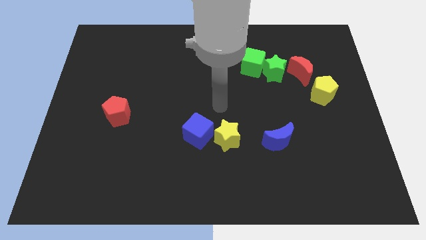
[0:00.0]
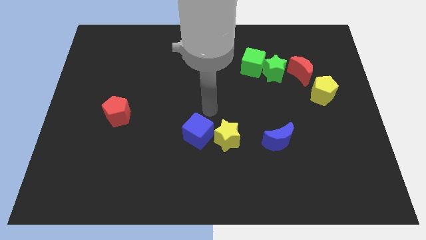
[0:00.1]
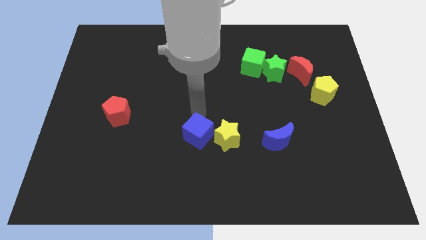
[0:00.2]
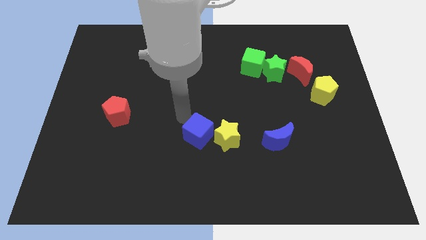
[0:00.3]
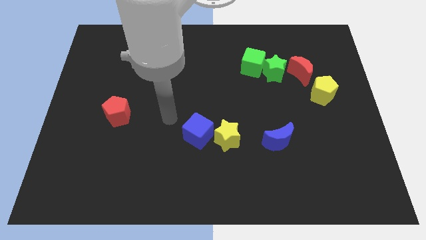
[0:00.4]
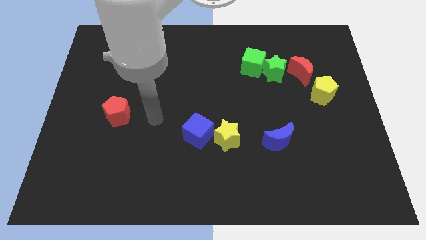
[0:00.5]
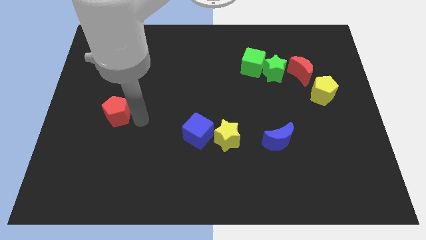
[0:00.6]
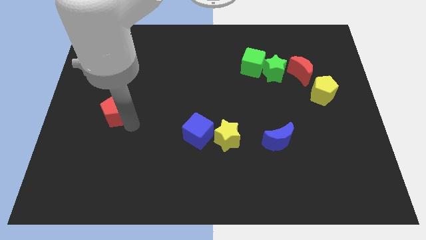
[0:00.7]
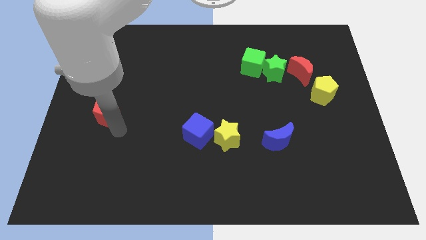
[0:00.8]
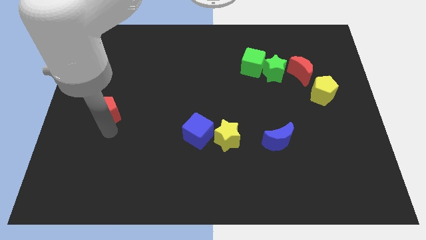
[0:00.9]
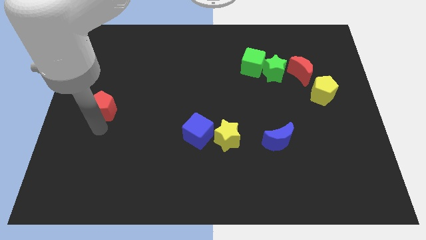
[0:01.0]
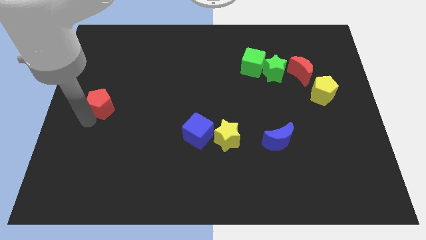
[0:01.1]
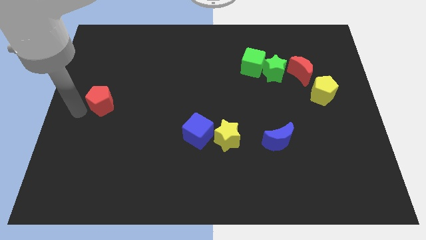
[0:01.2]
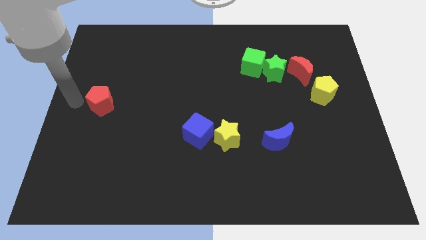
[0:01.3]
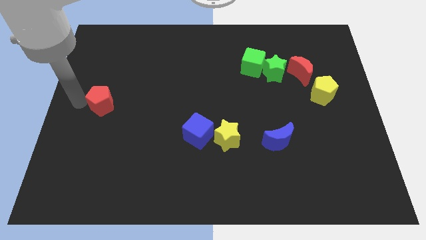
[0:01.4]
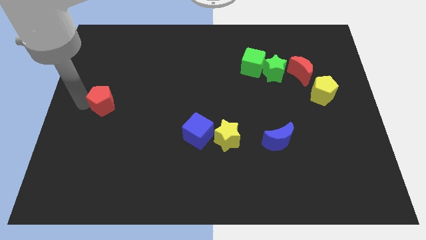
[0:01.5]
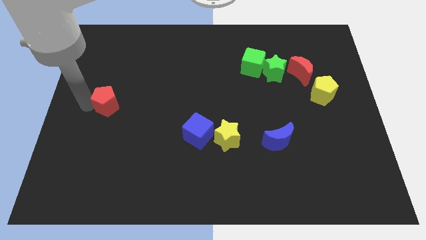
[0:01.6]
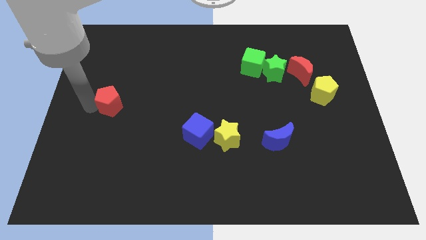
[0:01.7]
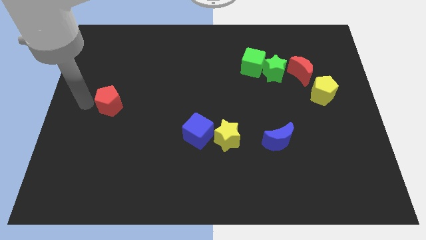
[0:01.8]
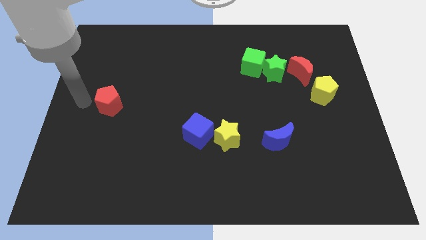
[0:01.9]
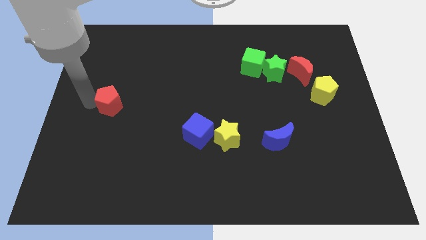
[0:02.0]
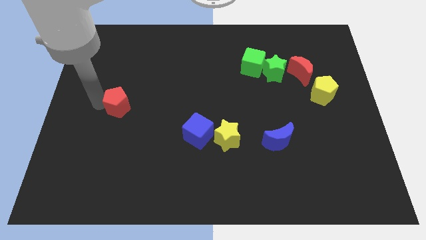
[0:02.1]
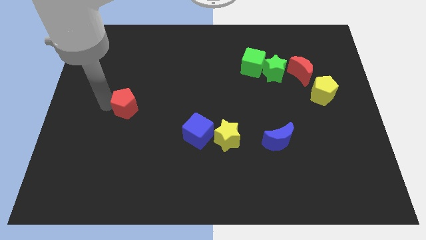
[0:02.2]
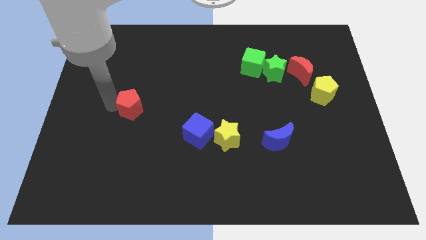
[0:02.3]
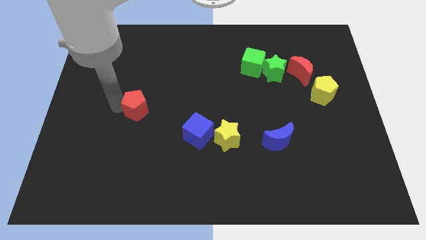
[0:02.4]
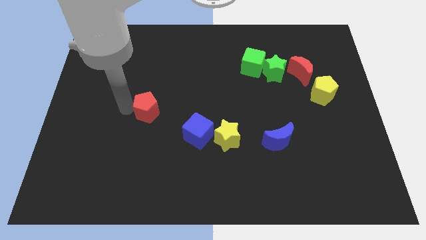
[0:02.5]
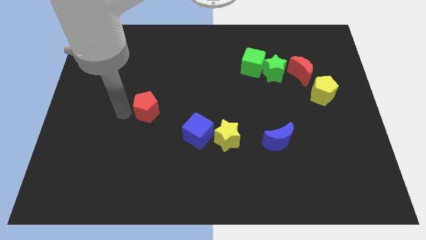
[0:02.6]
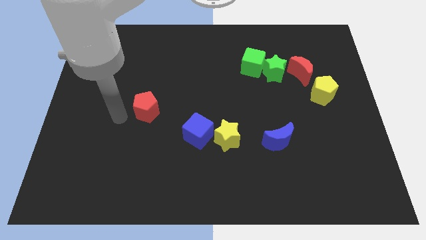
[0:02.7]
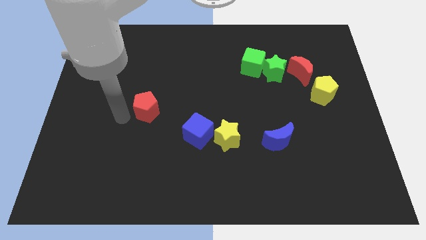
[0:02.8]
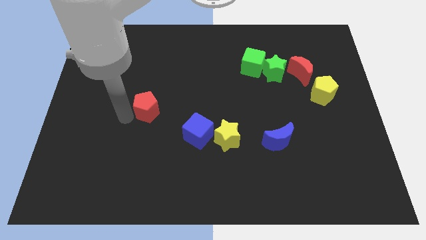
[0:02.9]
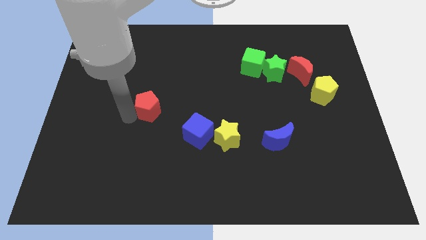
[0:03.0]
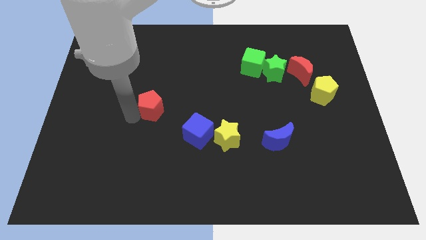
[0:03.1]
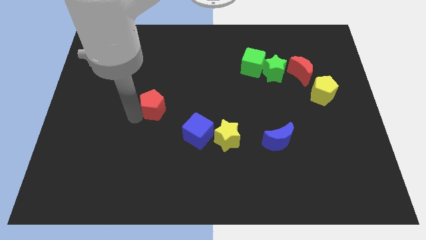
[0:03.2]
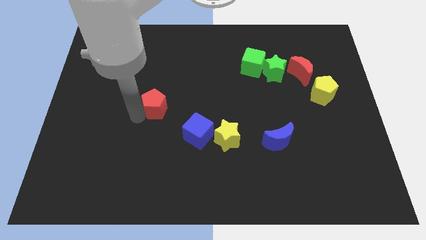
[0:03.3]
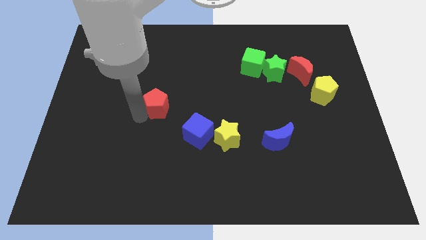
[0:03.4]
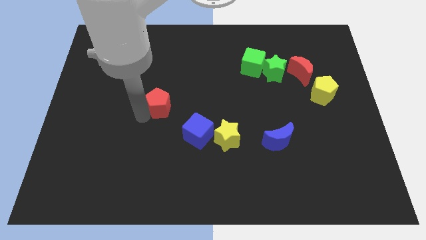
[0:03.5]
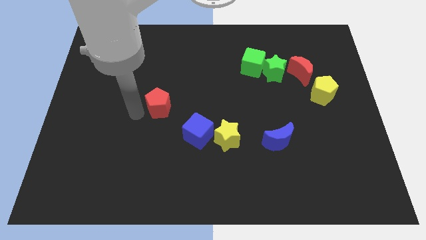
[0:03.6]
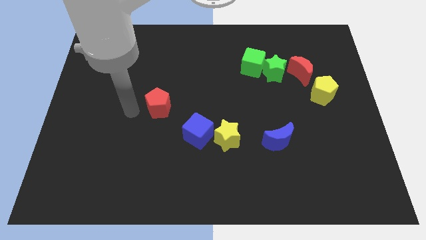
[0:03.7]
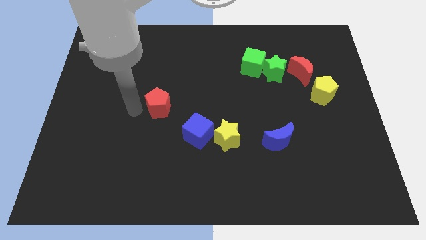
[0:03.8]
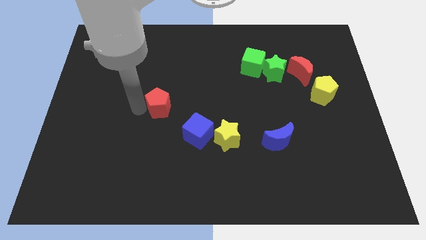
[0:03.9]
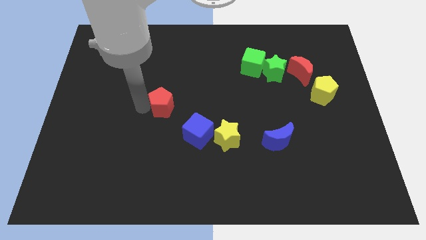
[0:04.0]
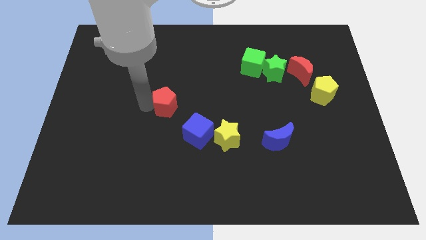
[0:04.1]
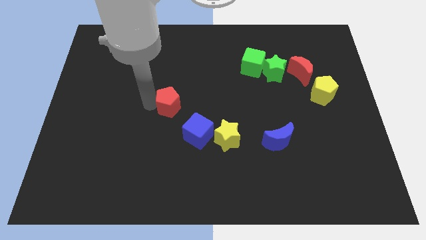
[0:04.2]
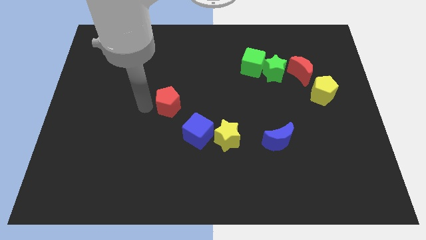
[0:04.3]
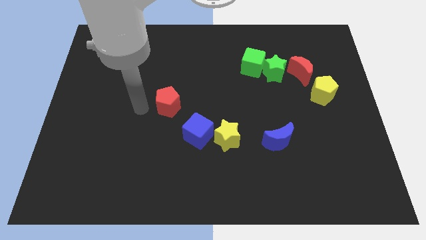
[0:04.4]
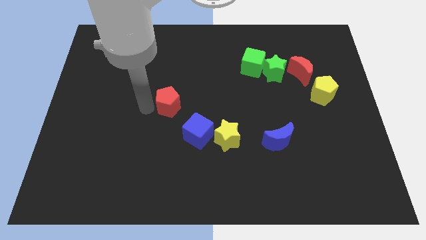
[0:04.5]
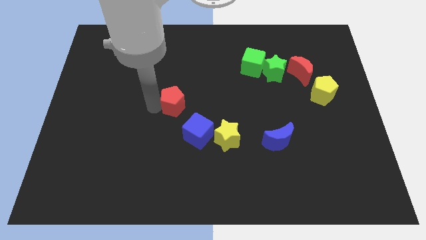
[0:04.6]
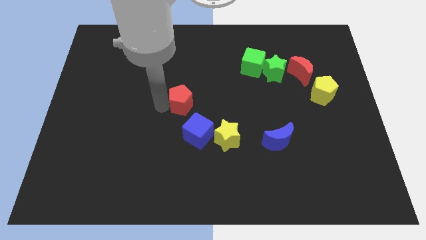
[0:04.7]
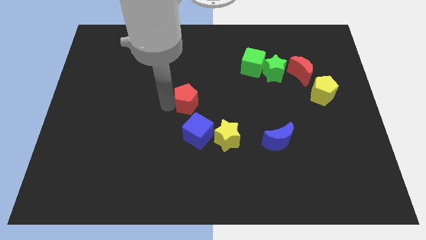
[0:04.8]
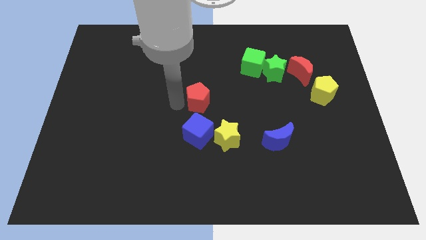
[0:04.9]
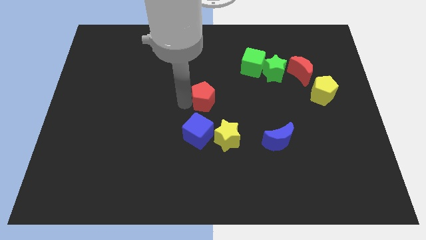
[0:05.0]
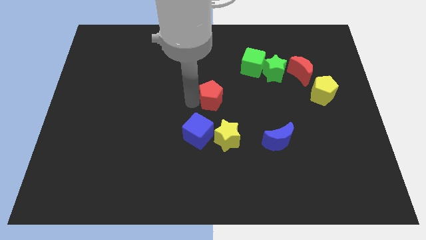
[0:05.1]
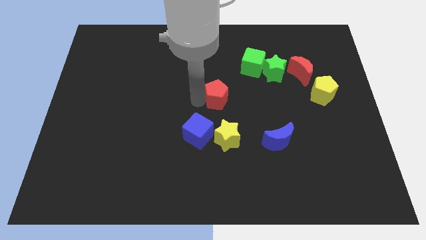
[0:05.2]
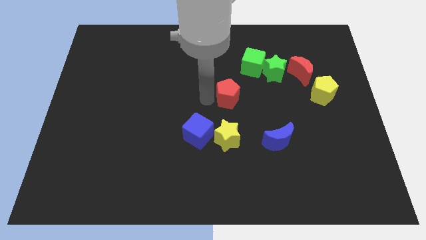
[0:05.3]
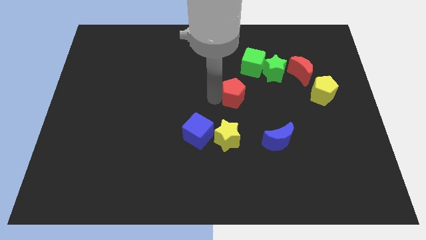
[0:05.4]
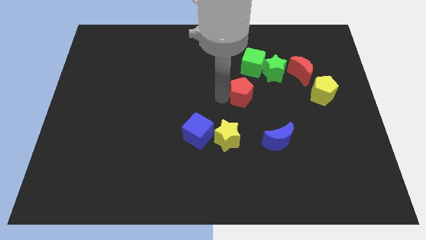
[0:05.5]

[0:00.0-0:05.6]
move the red pentagon to the bottom of the green cube

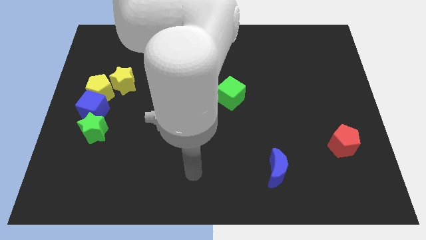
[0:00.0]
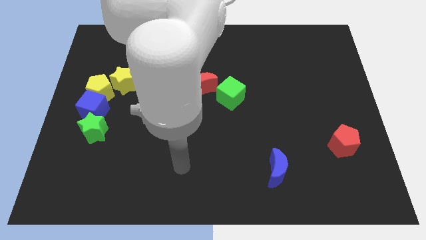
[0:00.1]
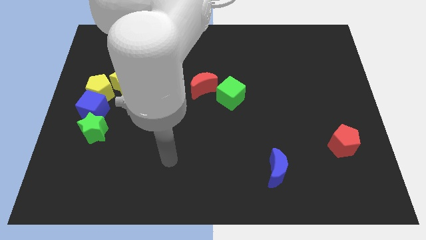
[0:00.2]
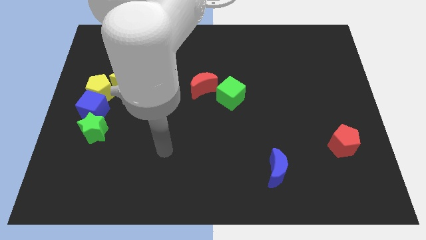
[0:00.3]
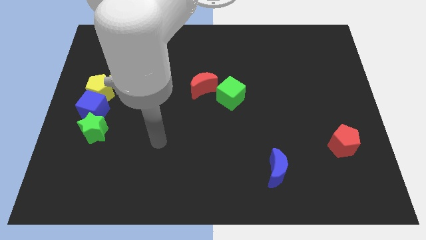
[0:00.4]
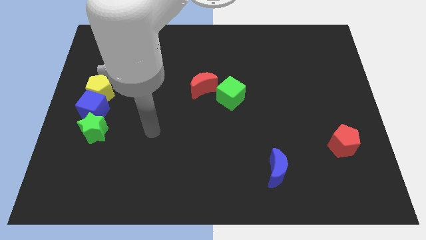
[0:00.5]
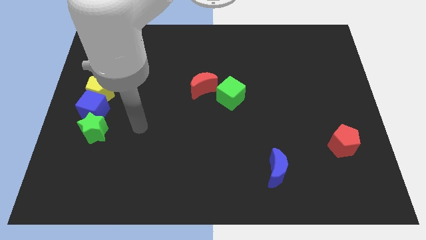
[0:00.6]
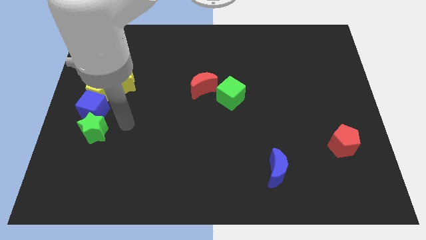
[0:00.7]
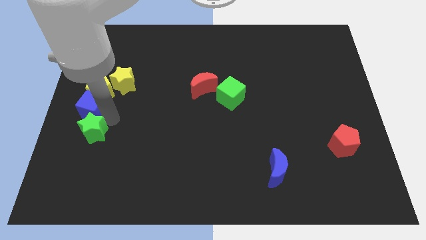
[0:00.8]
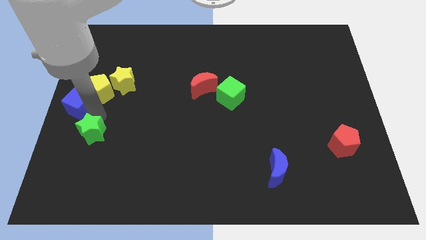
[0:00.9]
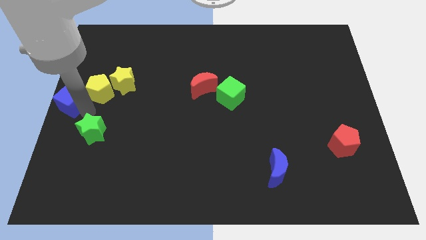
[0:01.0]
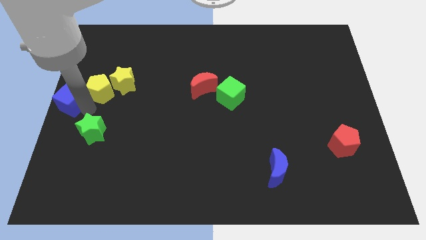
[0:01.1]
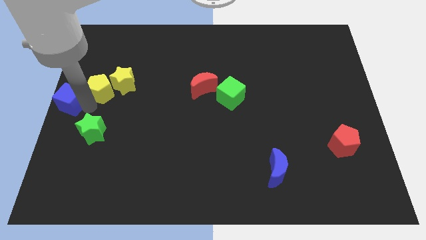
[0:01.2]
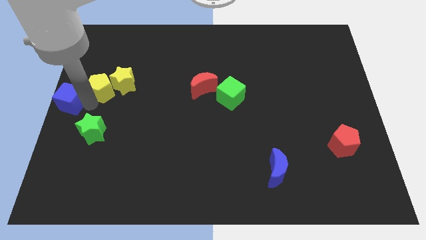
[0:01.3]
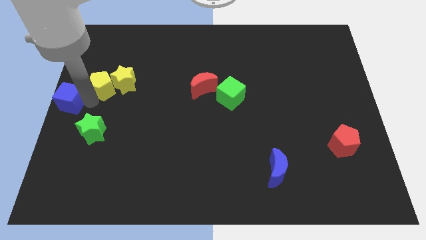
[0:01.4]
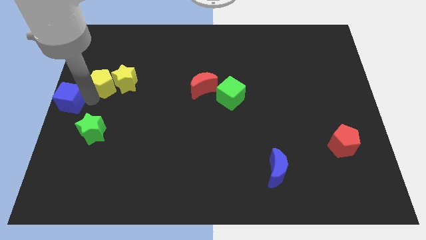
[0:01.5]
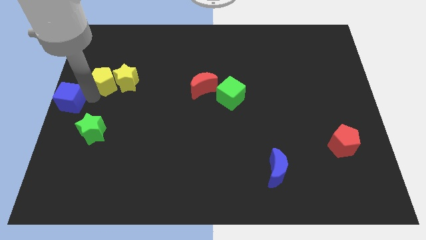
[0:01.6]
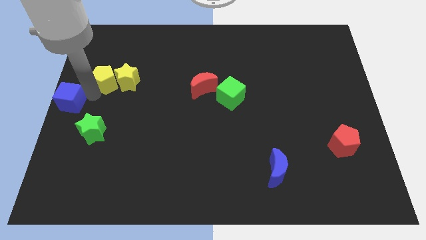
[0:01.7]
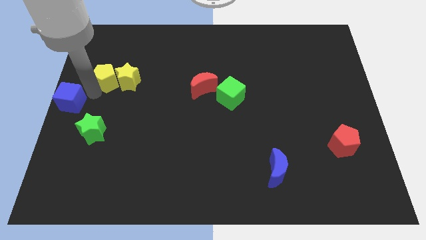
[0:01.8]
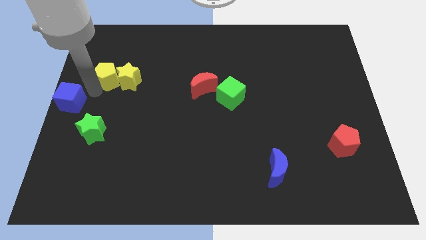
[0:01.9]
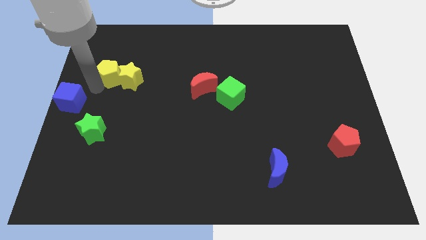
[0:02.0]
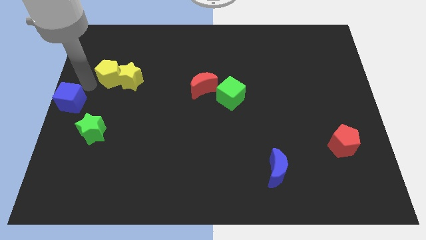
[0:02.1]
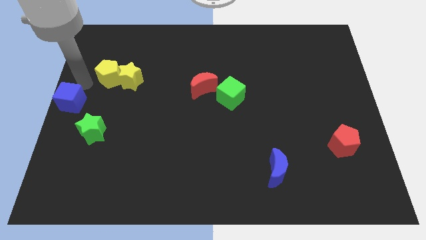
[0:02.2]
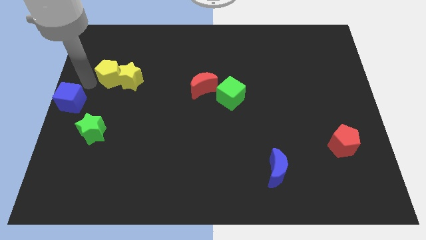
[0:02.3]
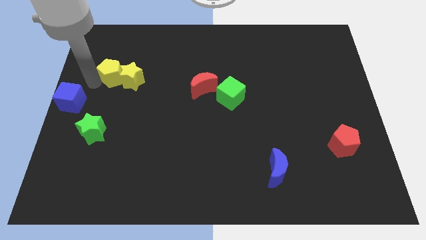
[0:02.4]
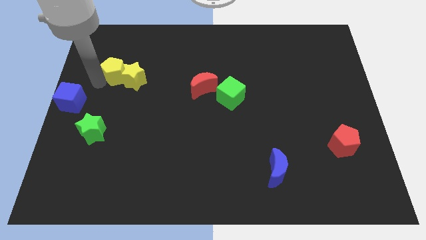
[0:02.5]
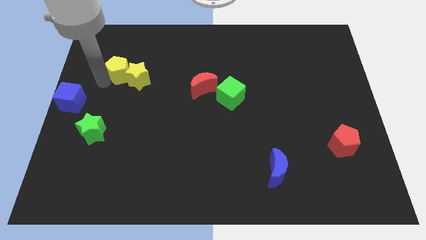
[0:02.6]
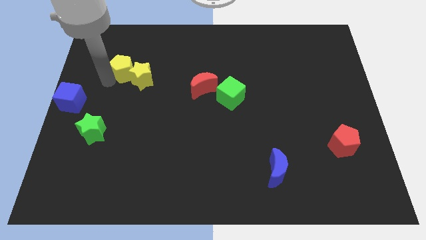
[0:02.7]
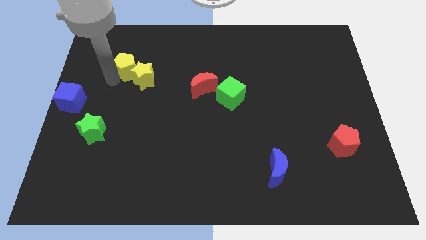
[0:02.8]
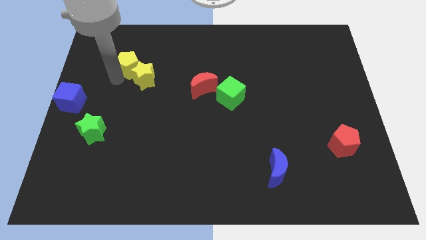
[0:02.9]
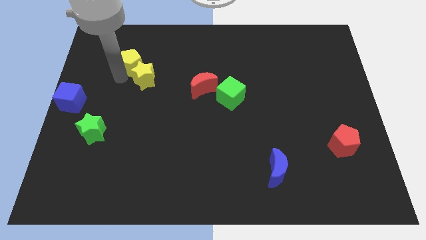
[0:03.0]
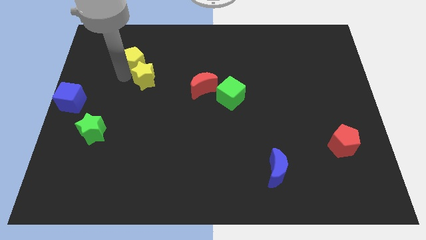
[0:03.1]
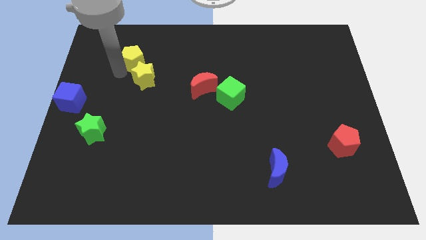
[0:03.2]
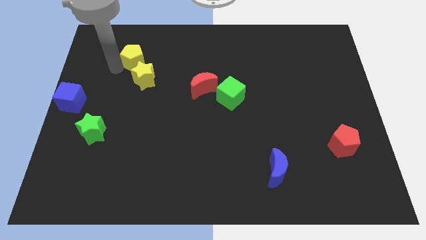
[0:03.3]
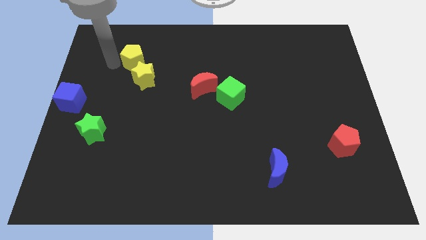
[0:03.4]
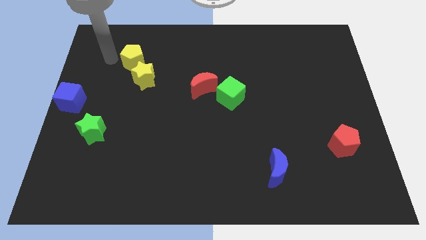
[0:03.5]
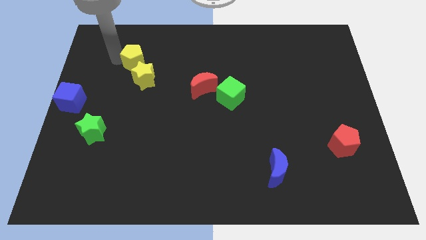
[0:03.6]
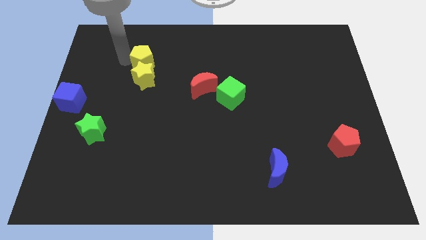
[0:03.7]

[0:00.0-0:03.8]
push the yellow pentagon diagonally up and to the right of the yellow star
